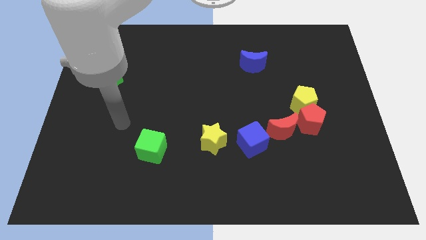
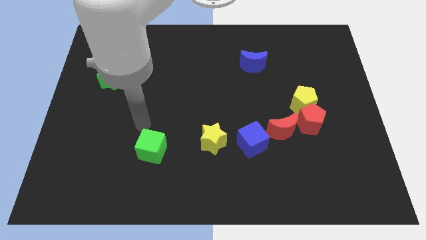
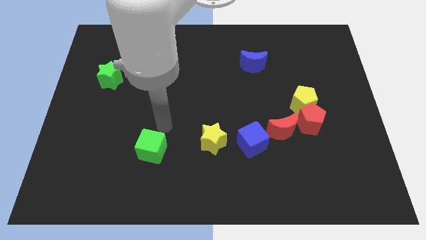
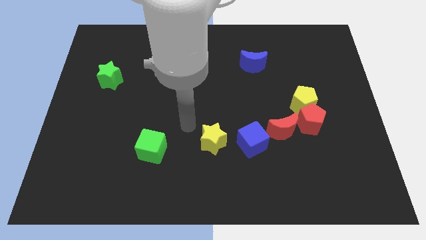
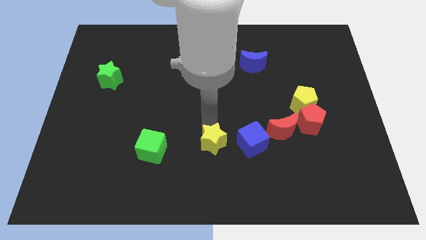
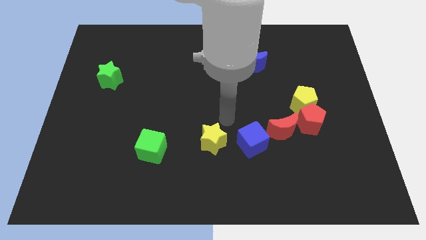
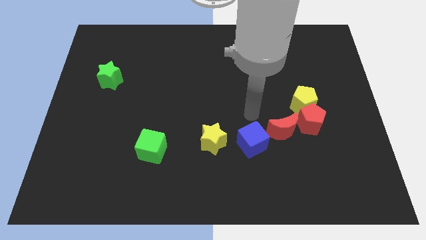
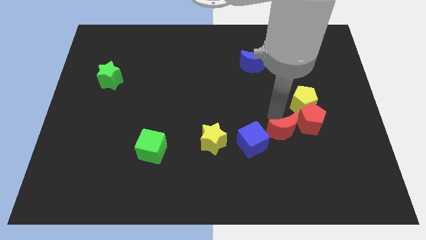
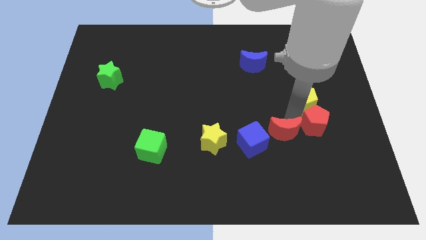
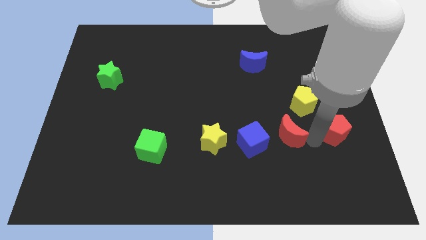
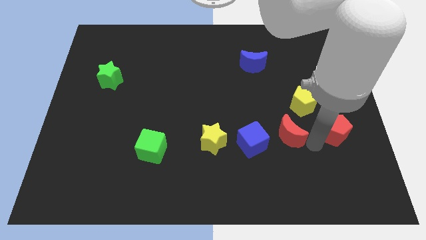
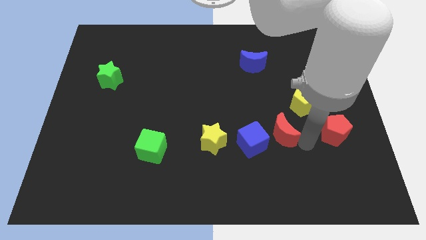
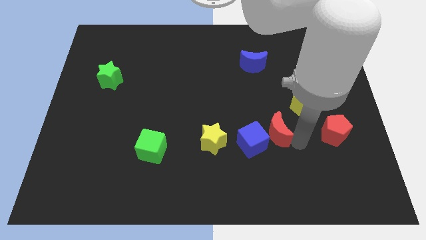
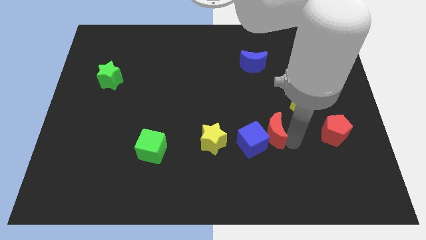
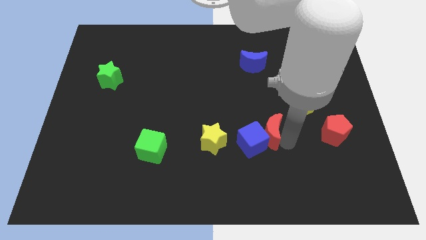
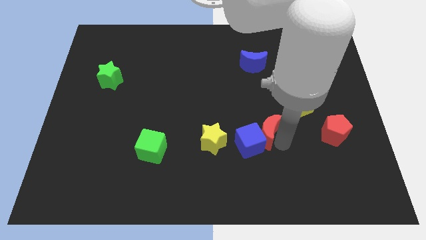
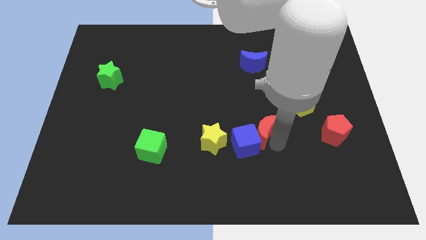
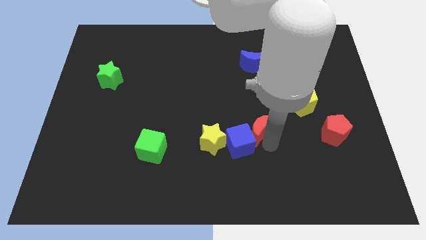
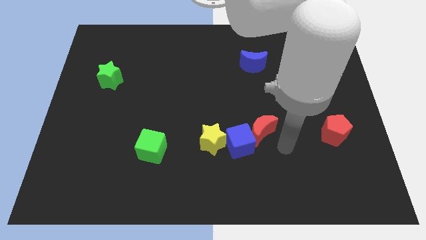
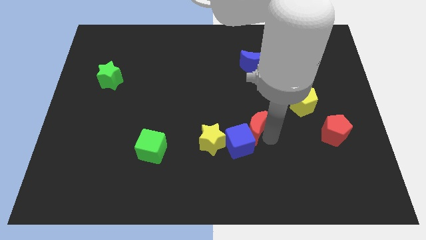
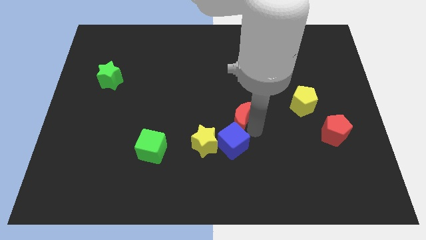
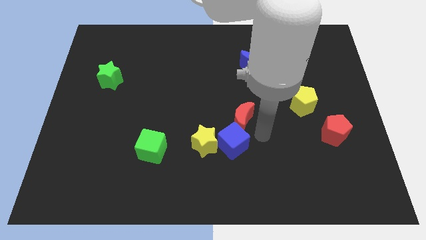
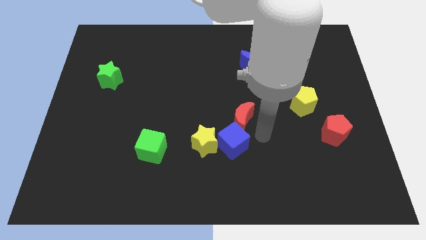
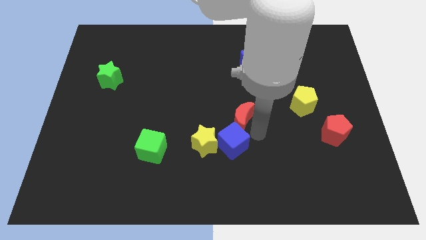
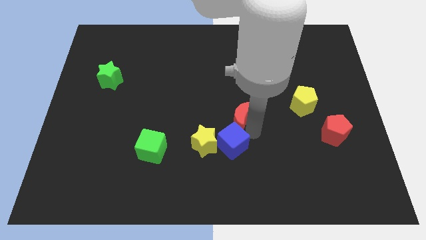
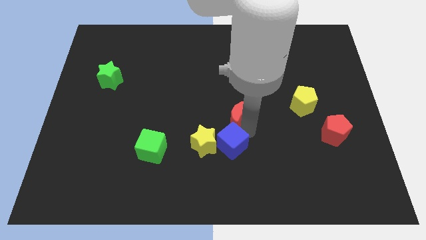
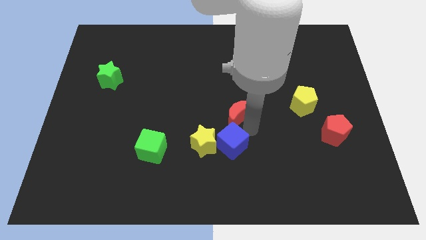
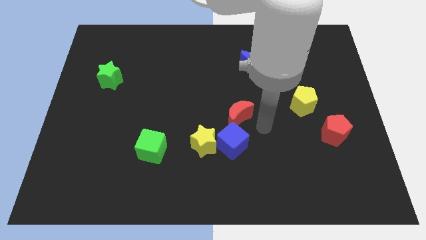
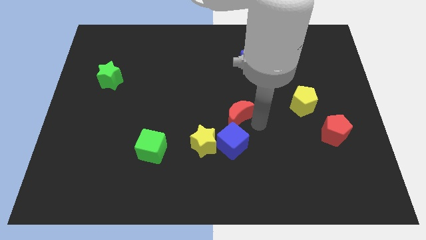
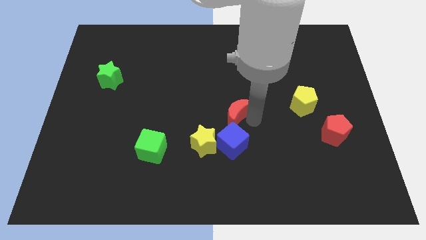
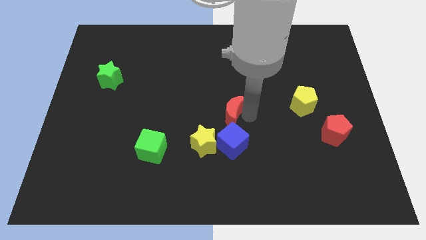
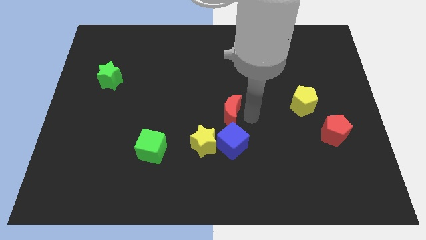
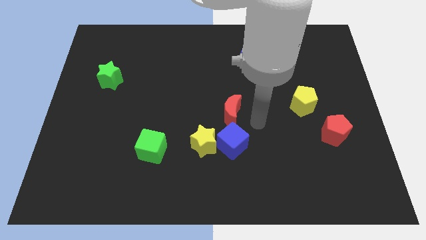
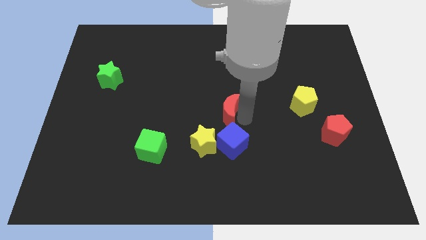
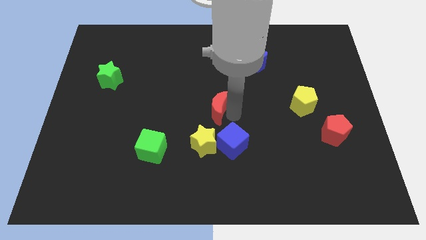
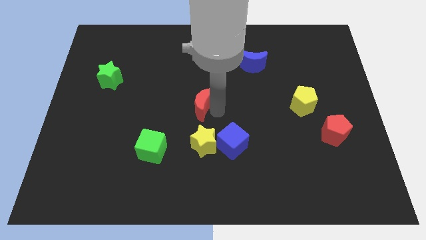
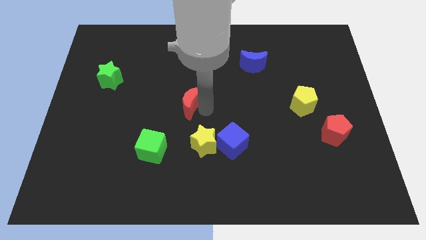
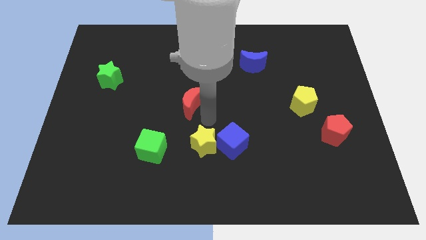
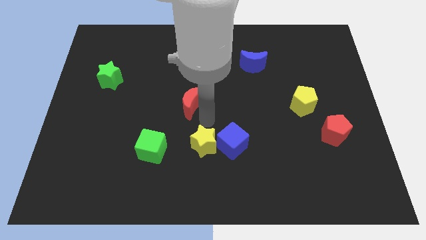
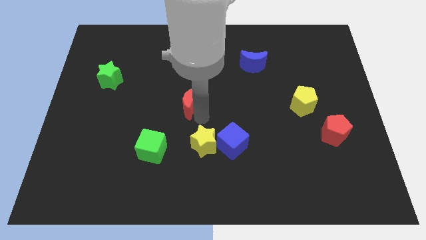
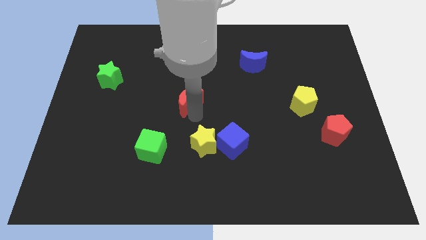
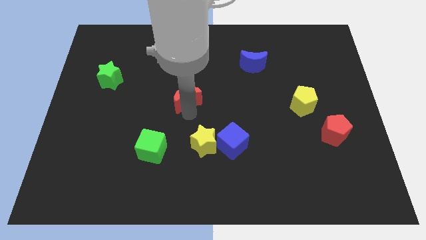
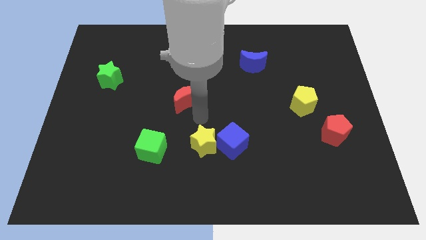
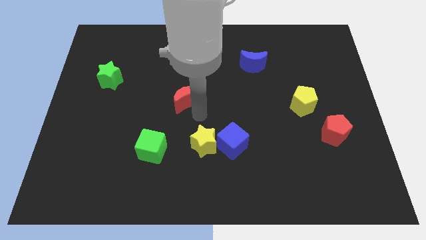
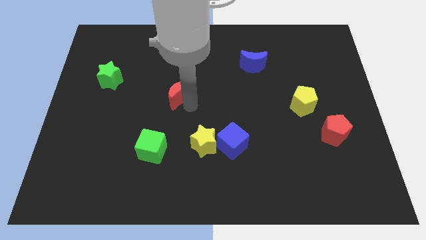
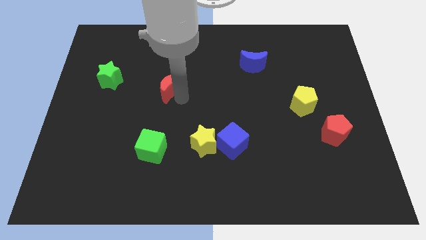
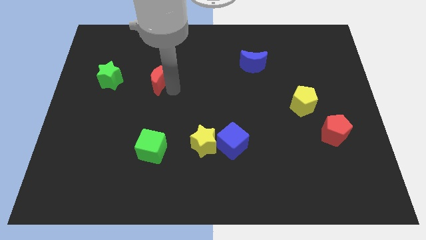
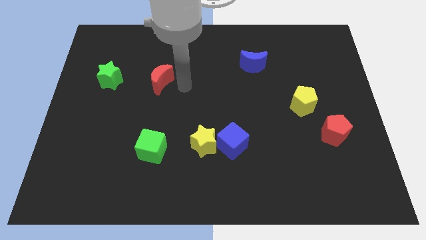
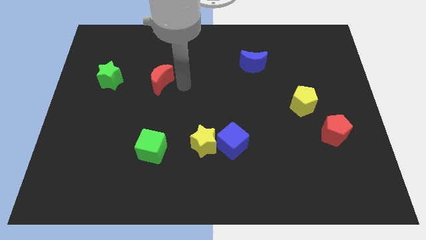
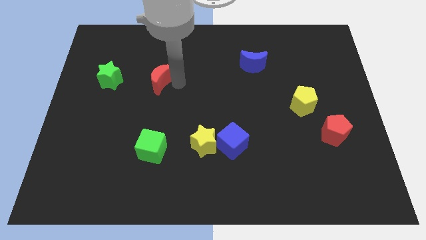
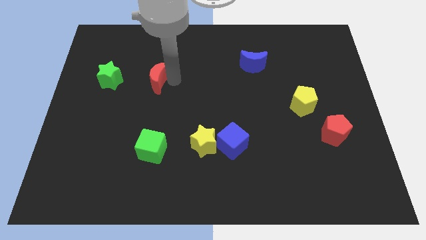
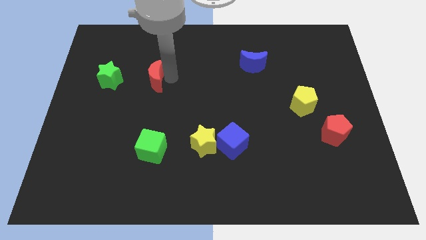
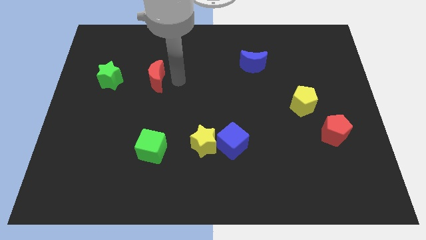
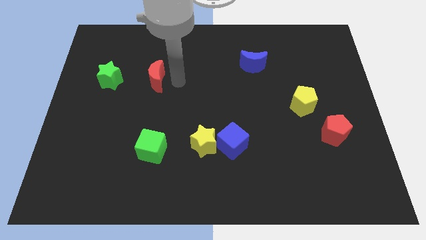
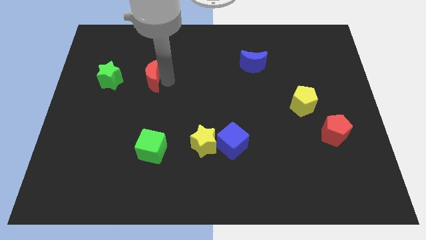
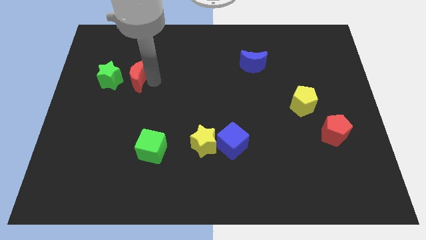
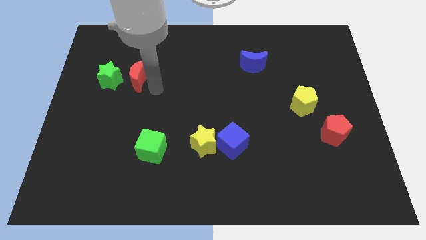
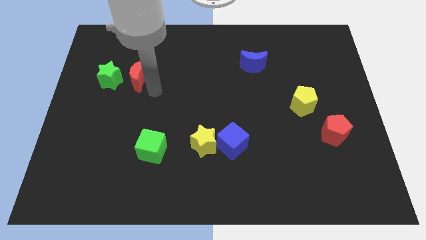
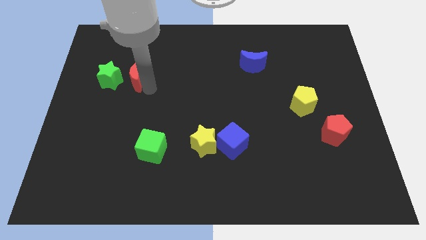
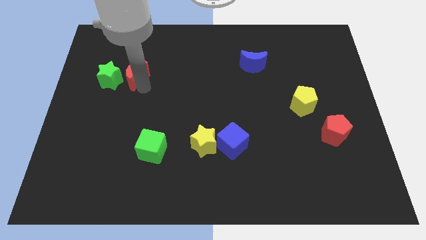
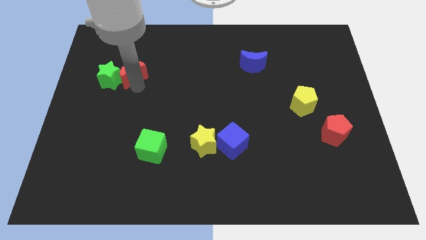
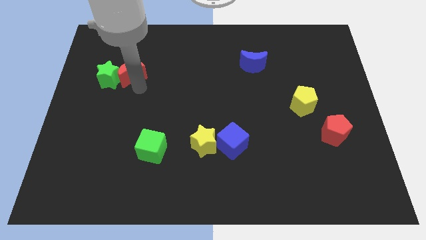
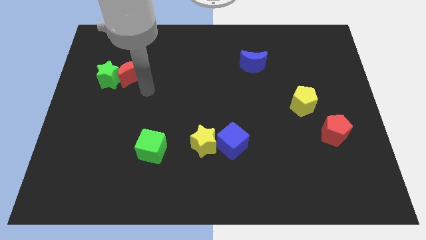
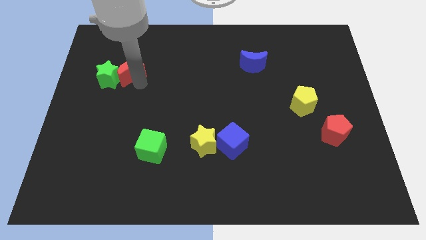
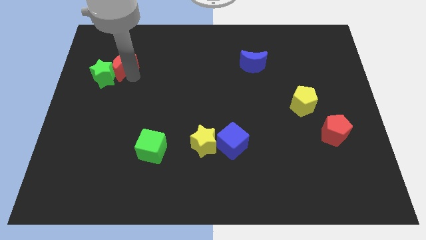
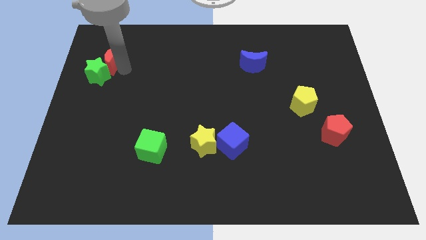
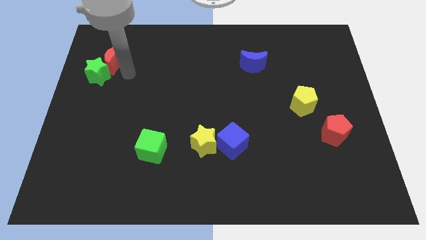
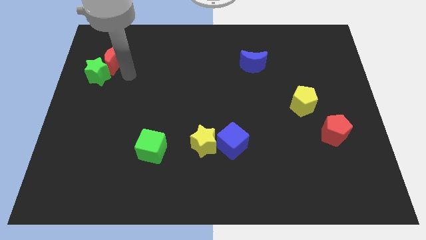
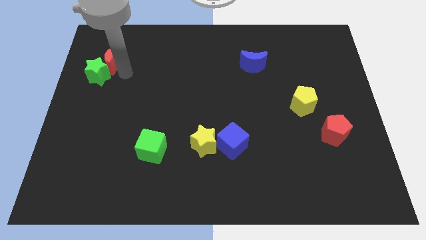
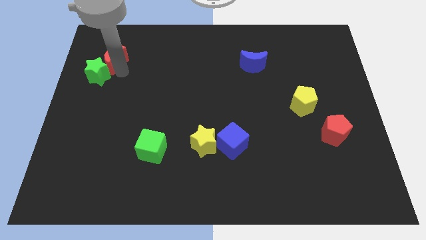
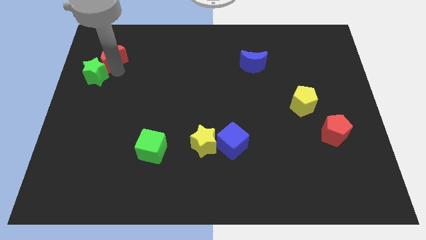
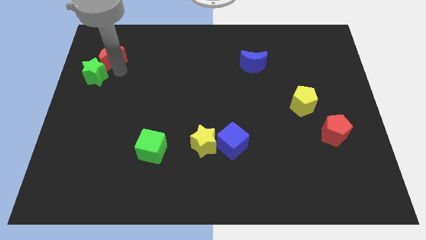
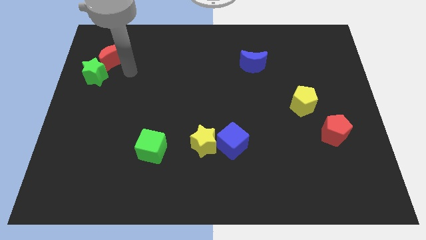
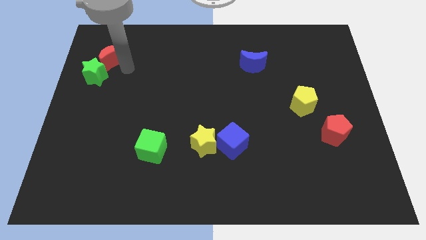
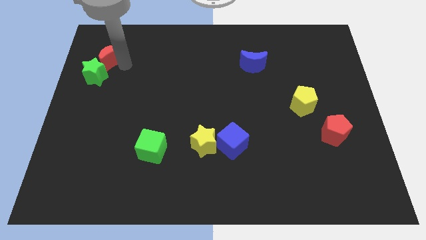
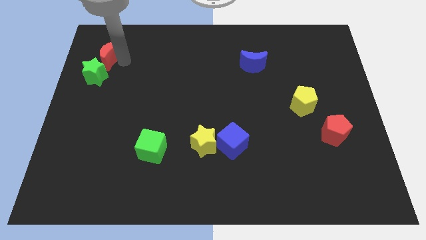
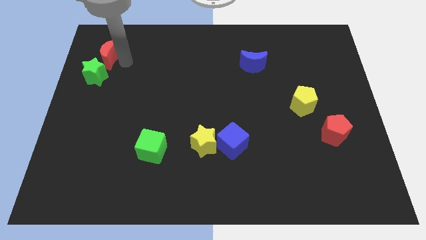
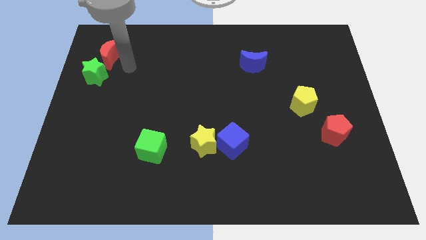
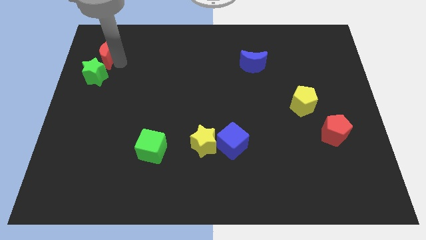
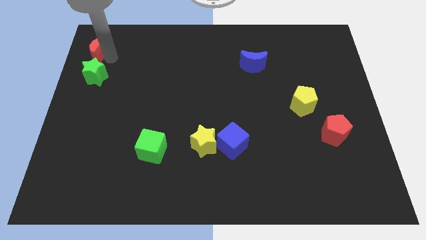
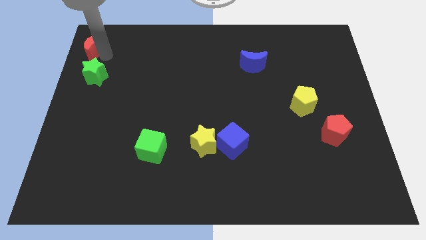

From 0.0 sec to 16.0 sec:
slide the red moon to the top left corner
